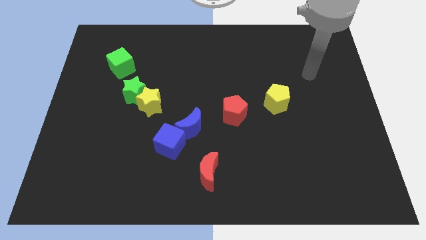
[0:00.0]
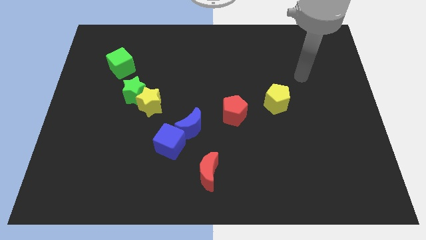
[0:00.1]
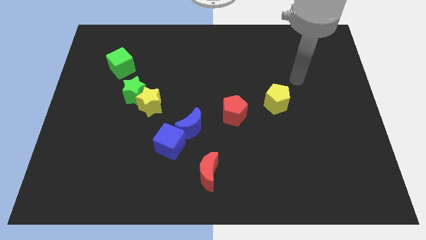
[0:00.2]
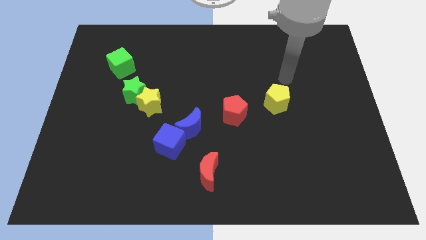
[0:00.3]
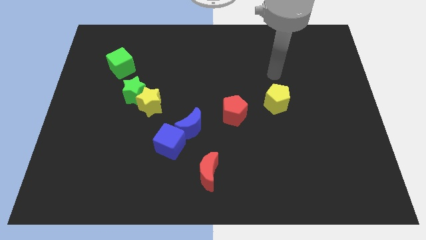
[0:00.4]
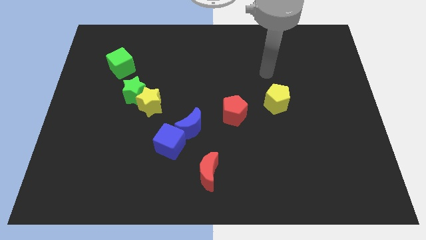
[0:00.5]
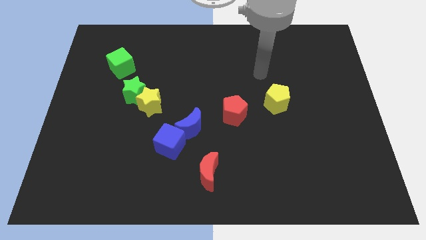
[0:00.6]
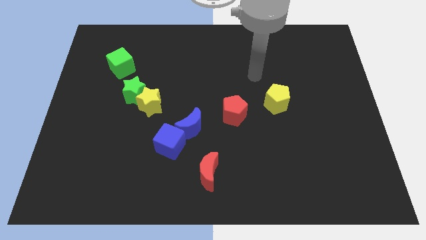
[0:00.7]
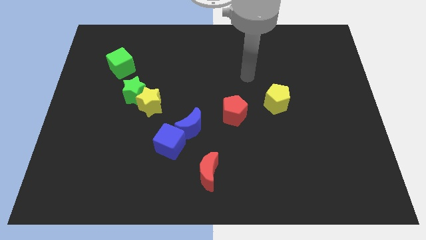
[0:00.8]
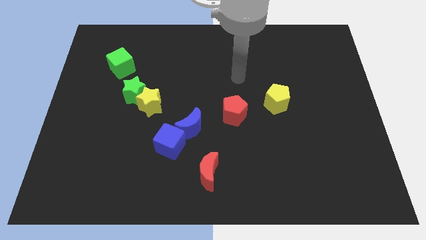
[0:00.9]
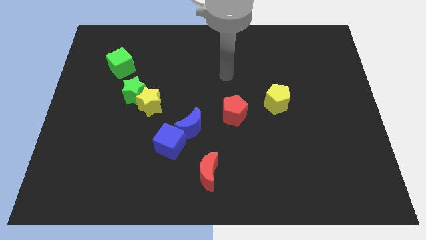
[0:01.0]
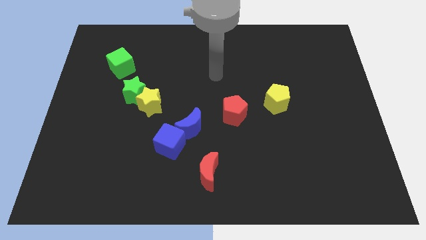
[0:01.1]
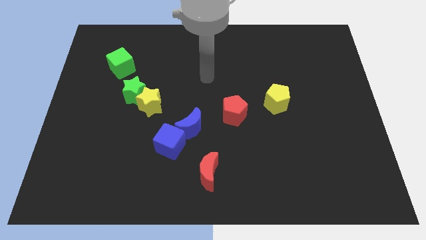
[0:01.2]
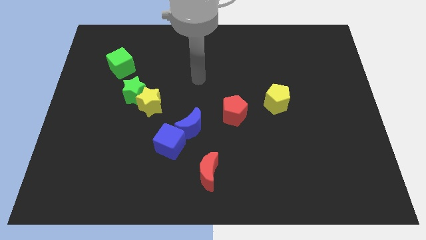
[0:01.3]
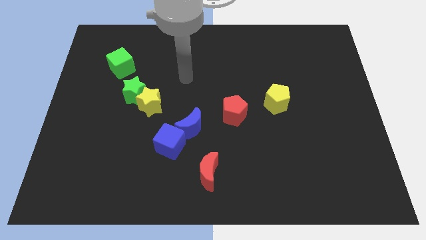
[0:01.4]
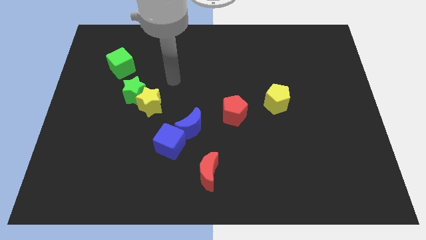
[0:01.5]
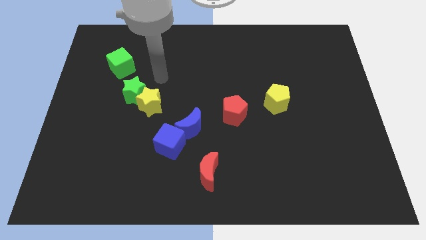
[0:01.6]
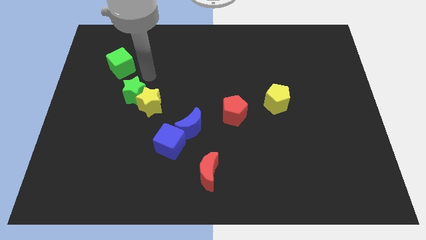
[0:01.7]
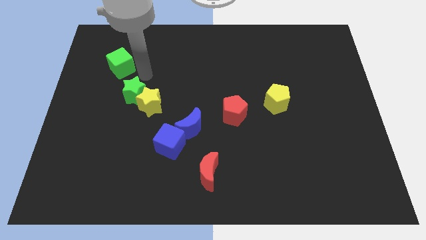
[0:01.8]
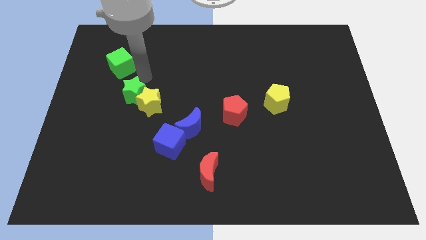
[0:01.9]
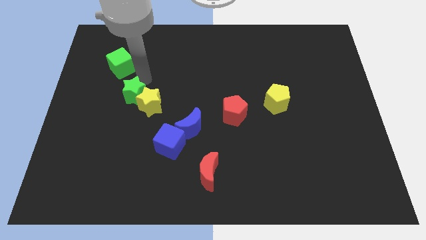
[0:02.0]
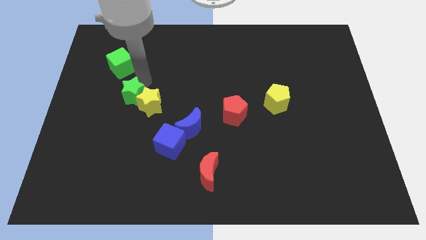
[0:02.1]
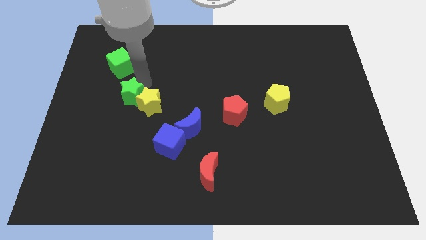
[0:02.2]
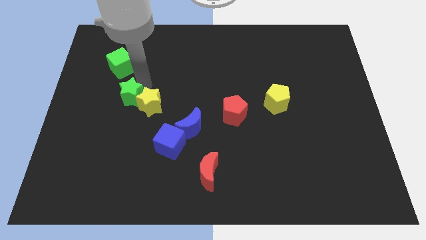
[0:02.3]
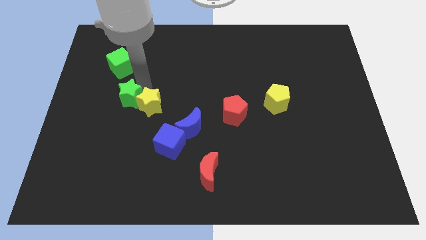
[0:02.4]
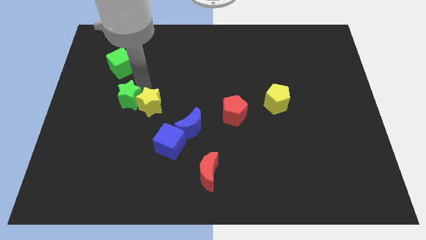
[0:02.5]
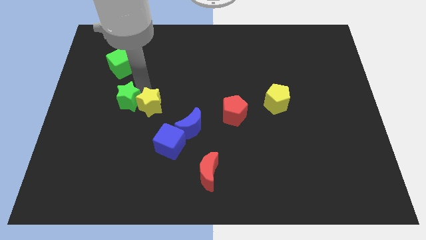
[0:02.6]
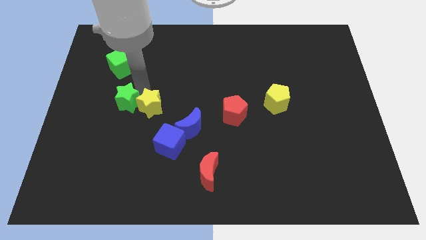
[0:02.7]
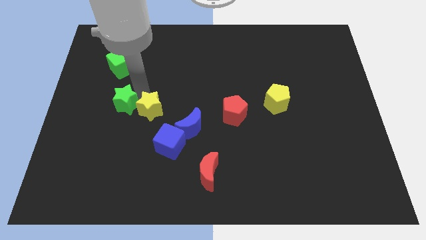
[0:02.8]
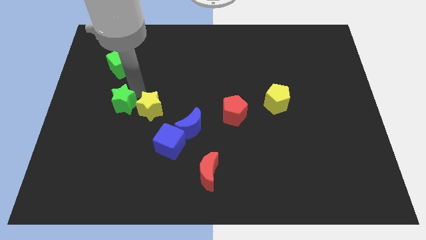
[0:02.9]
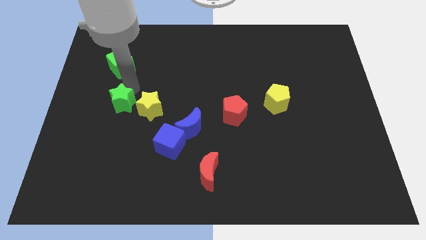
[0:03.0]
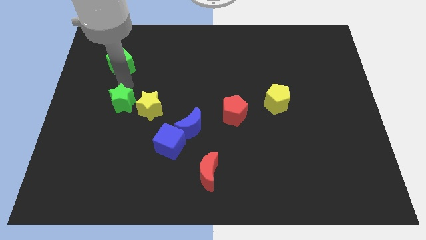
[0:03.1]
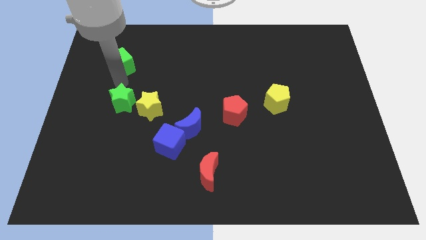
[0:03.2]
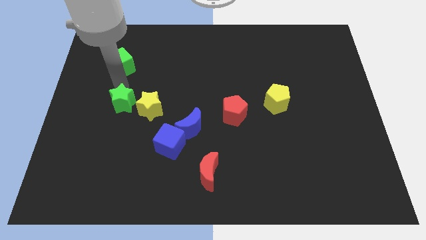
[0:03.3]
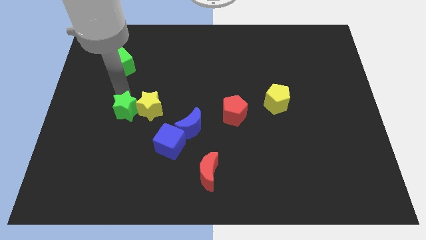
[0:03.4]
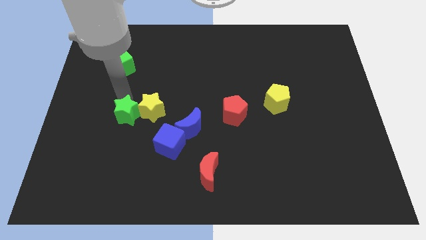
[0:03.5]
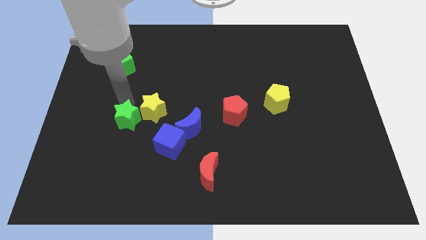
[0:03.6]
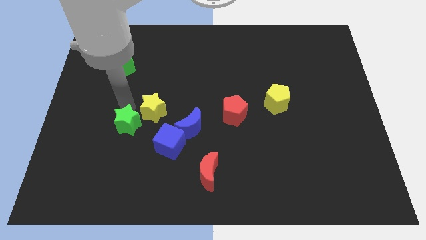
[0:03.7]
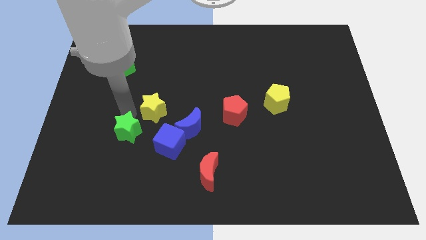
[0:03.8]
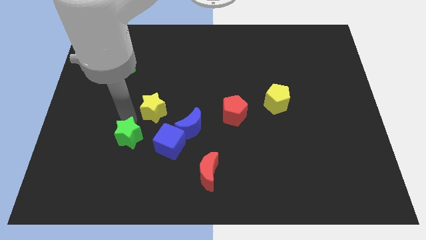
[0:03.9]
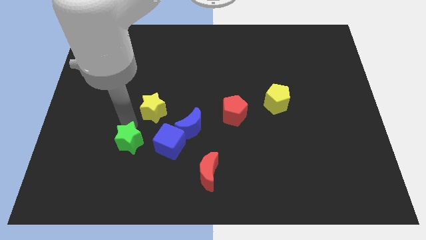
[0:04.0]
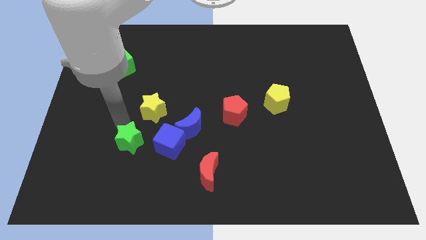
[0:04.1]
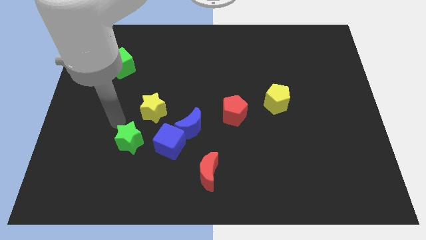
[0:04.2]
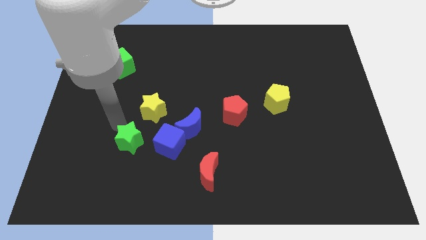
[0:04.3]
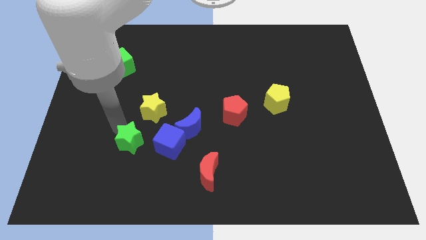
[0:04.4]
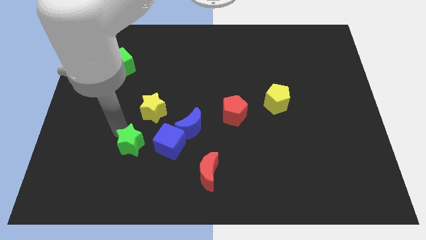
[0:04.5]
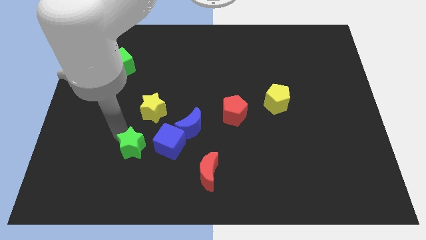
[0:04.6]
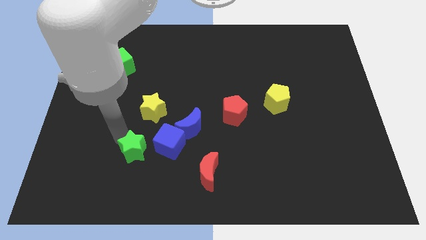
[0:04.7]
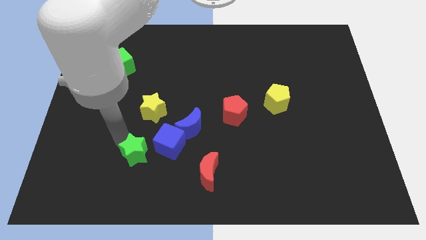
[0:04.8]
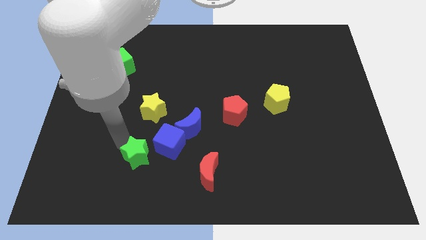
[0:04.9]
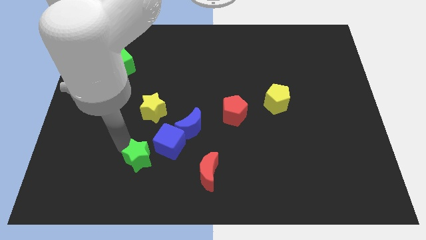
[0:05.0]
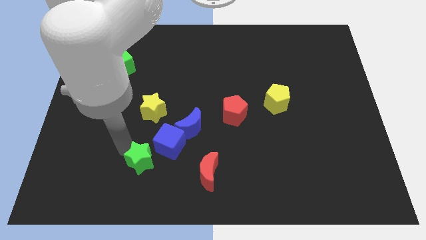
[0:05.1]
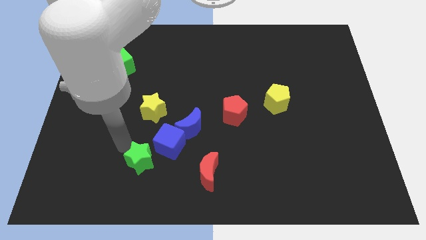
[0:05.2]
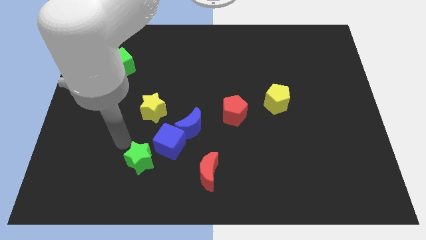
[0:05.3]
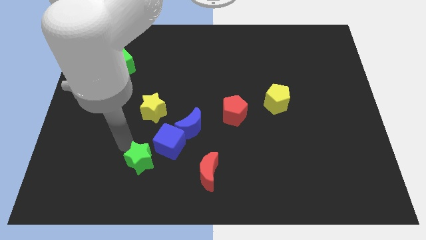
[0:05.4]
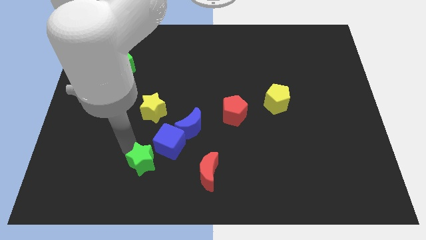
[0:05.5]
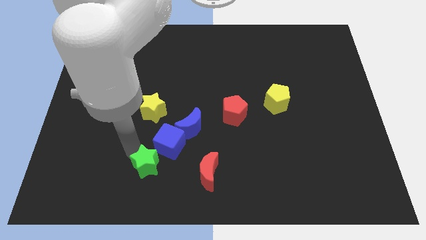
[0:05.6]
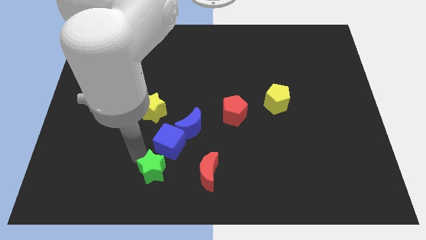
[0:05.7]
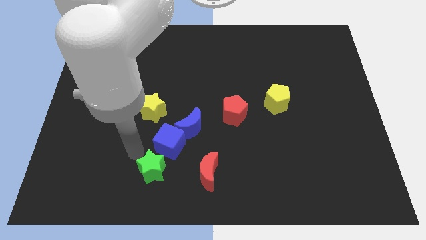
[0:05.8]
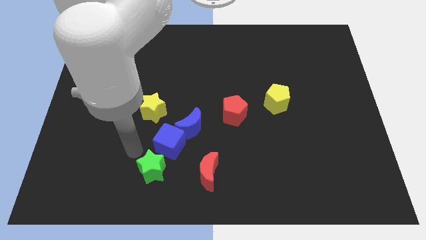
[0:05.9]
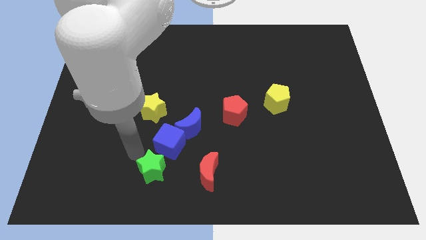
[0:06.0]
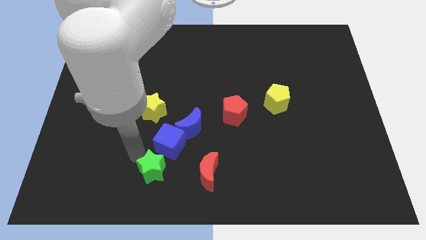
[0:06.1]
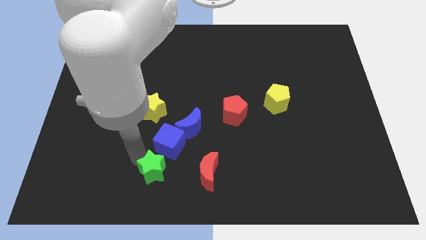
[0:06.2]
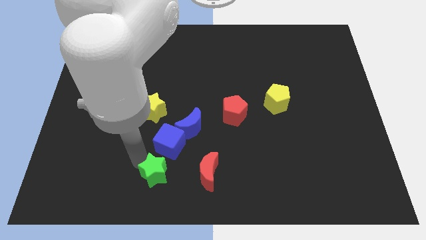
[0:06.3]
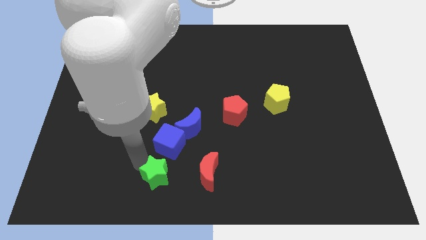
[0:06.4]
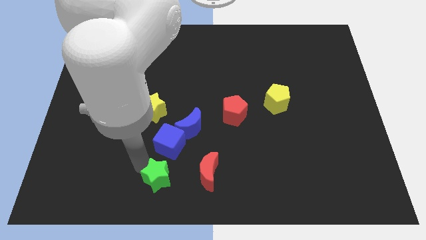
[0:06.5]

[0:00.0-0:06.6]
slide the green star to the bottom side
